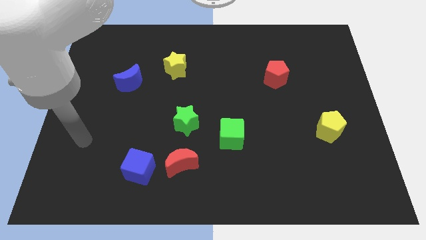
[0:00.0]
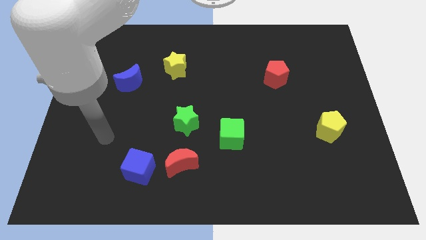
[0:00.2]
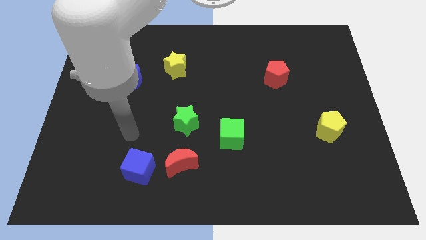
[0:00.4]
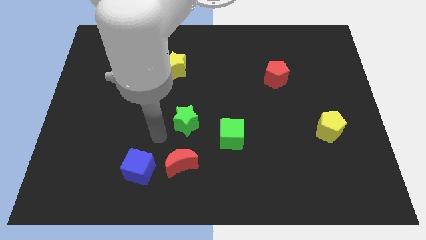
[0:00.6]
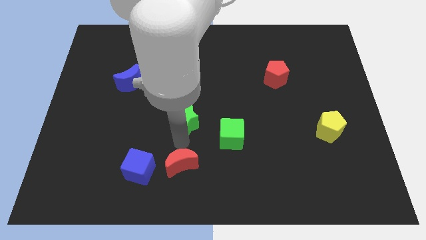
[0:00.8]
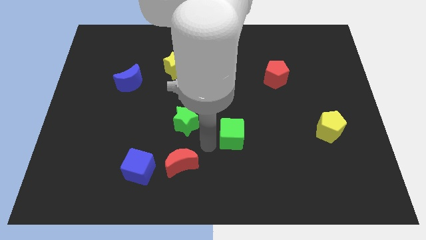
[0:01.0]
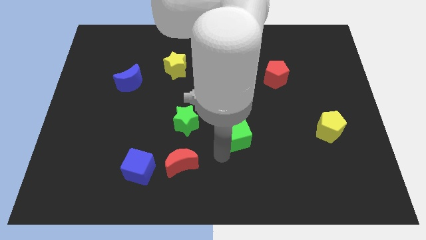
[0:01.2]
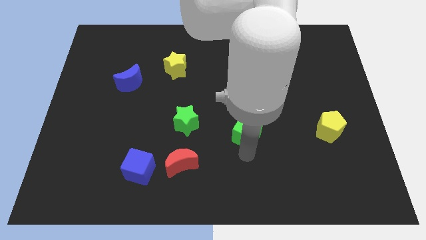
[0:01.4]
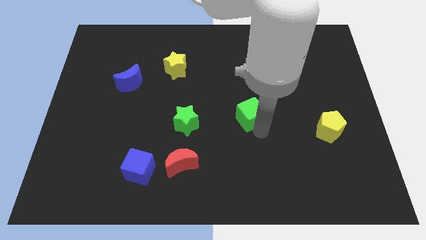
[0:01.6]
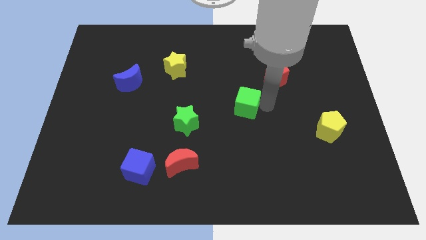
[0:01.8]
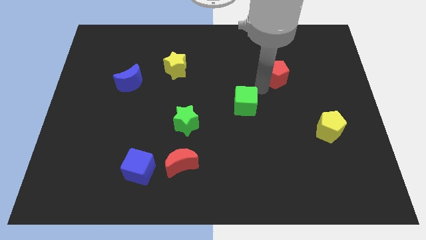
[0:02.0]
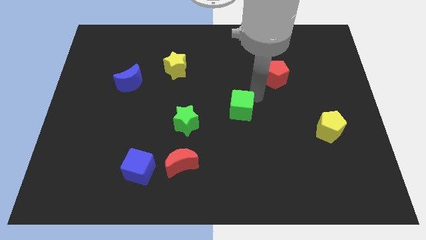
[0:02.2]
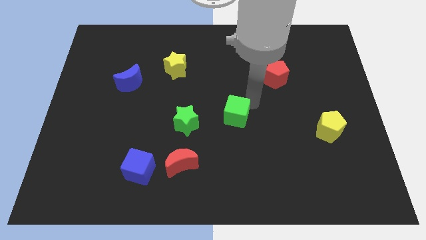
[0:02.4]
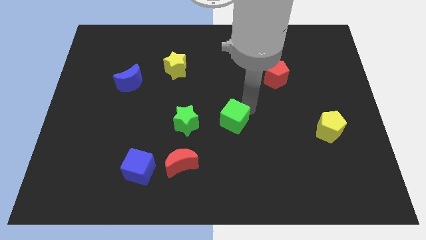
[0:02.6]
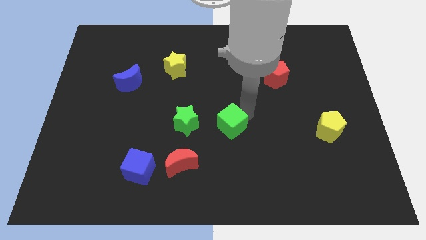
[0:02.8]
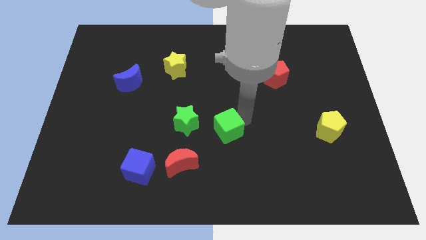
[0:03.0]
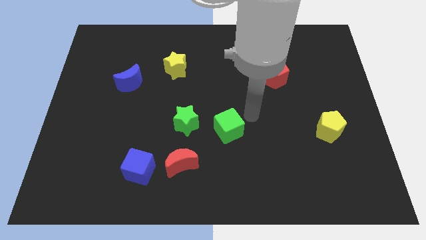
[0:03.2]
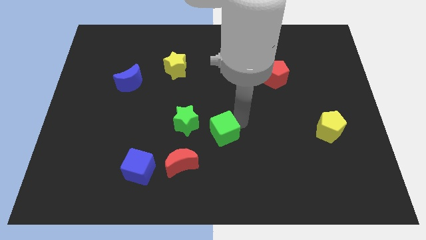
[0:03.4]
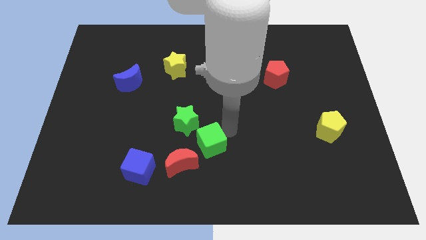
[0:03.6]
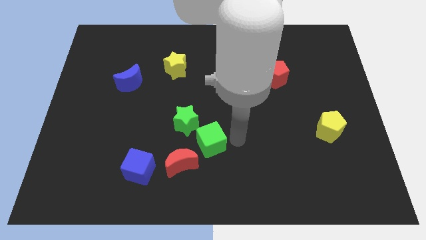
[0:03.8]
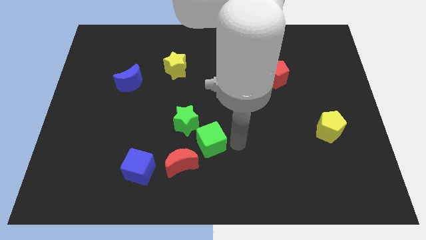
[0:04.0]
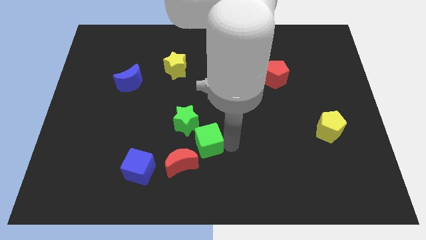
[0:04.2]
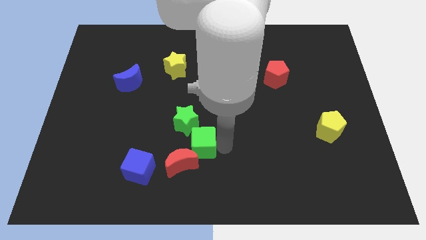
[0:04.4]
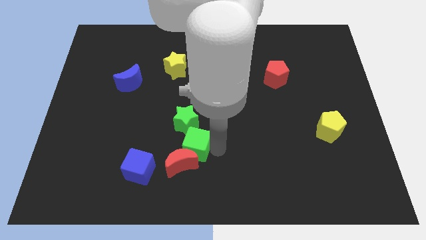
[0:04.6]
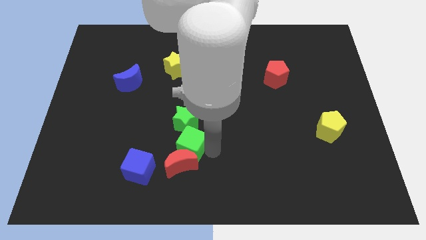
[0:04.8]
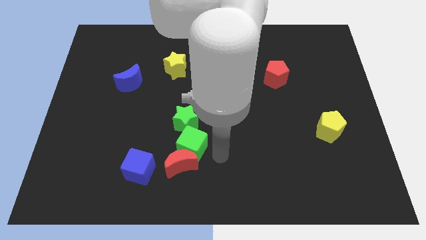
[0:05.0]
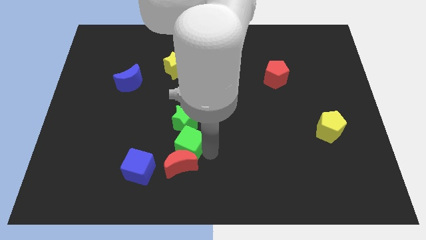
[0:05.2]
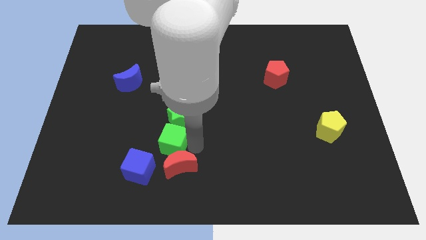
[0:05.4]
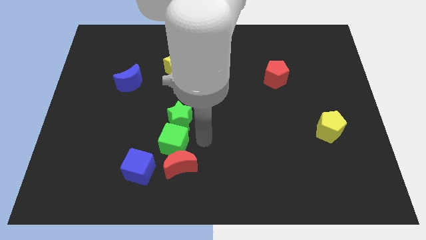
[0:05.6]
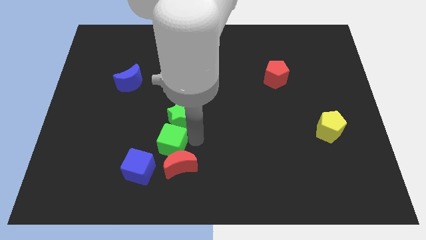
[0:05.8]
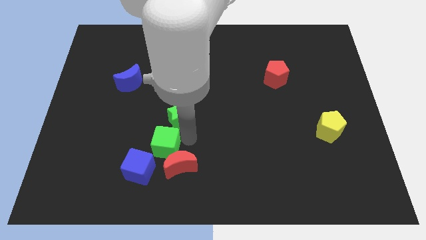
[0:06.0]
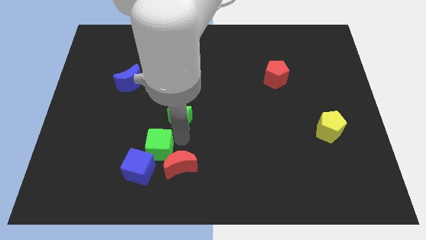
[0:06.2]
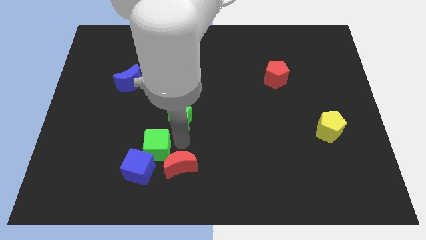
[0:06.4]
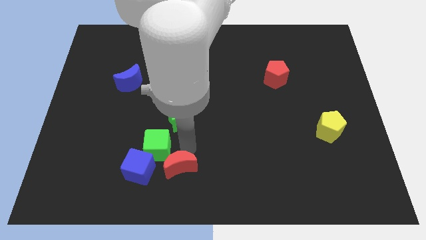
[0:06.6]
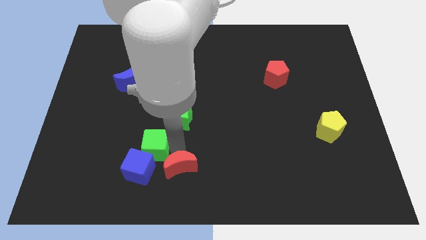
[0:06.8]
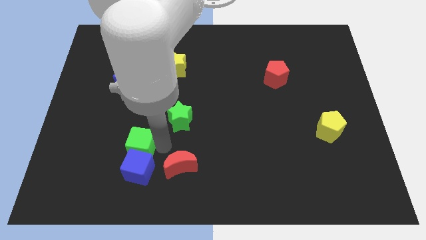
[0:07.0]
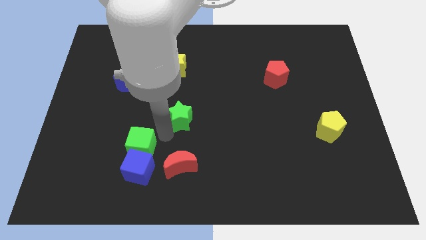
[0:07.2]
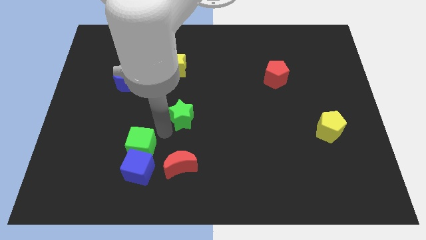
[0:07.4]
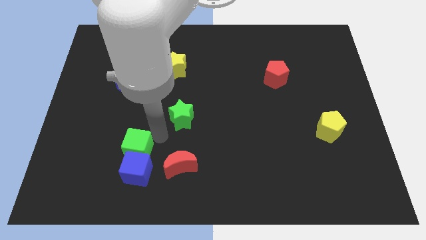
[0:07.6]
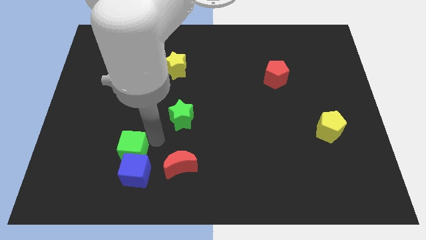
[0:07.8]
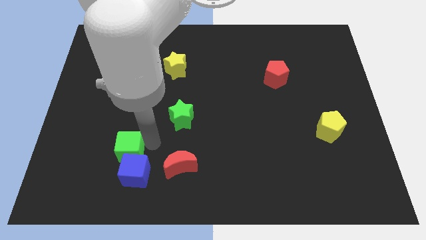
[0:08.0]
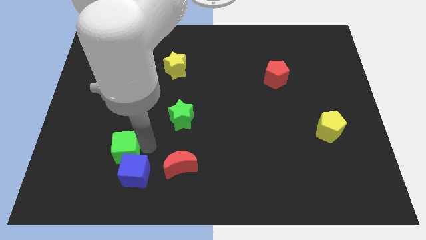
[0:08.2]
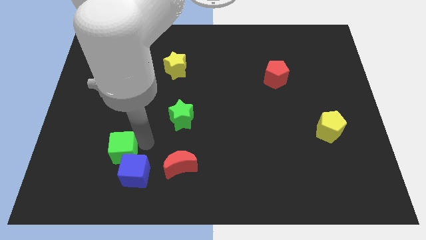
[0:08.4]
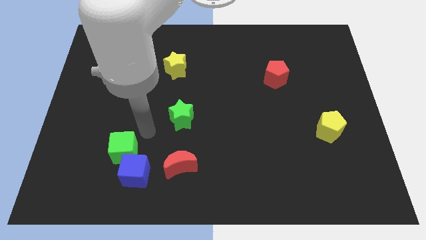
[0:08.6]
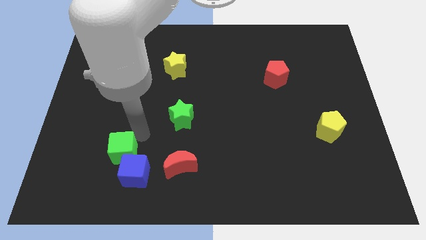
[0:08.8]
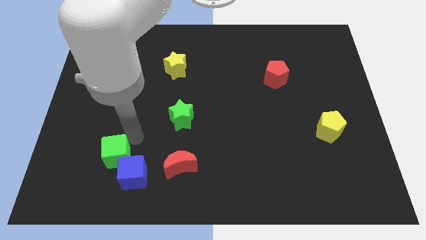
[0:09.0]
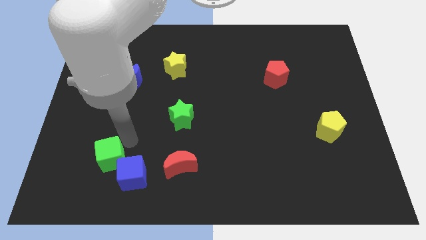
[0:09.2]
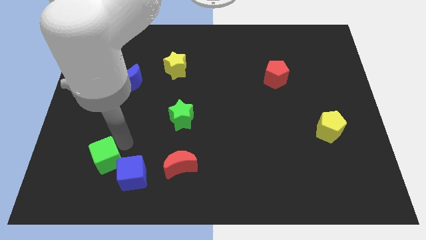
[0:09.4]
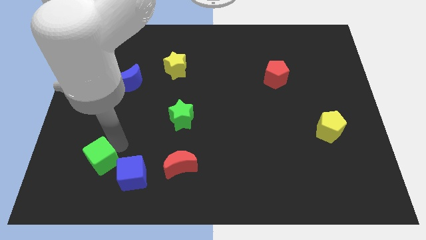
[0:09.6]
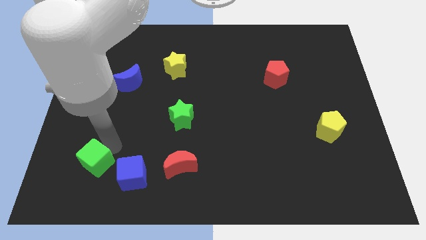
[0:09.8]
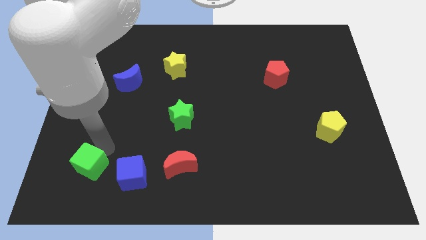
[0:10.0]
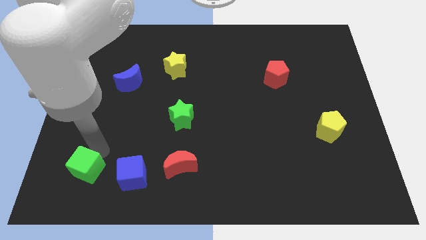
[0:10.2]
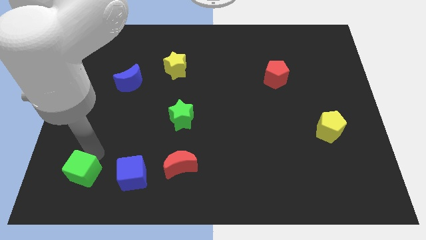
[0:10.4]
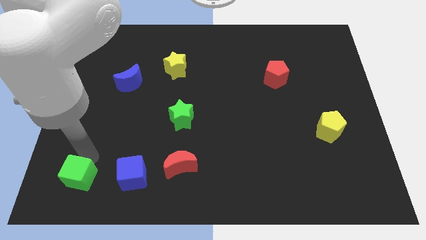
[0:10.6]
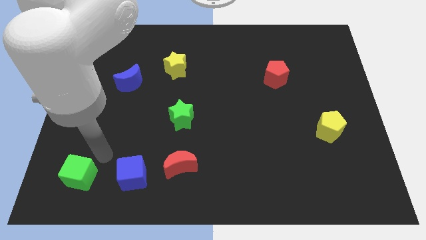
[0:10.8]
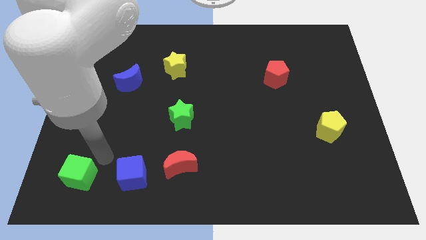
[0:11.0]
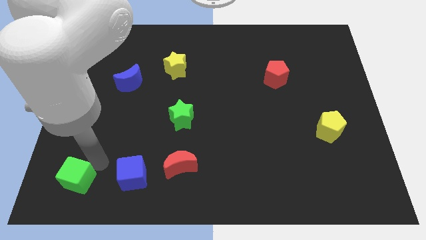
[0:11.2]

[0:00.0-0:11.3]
put the green cube to the bottom left of the board
